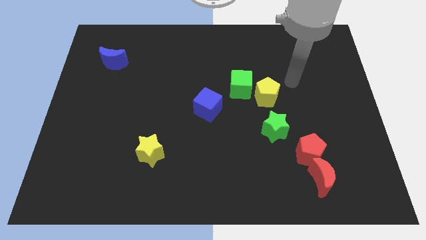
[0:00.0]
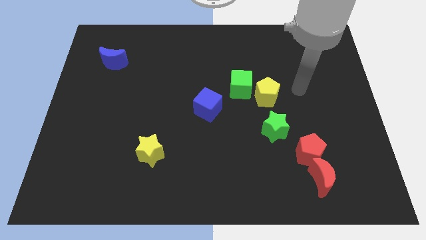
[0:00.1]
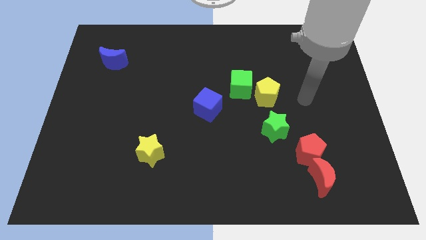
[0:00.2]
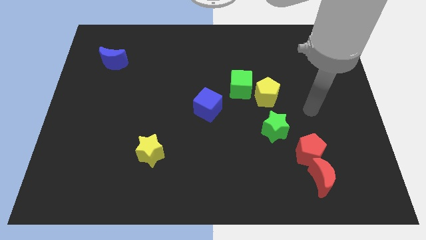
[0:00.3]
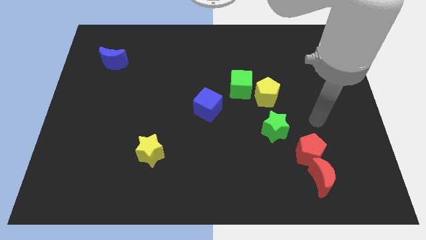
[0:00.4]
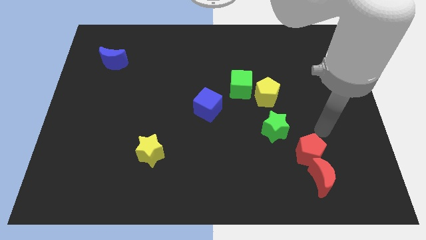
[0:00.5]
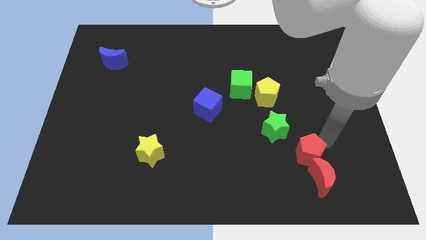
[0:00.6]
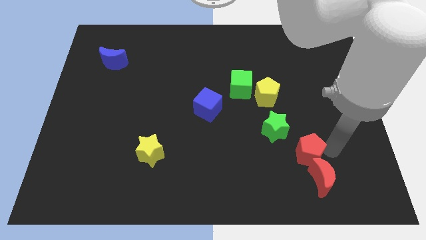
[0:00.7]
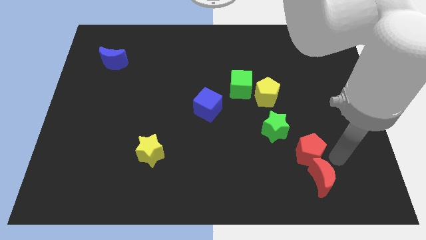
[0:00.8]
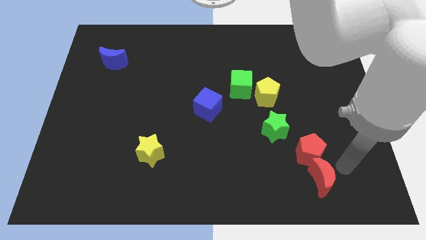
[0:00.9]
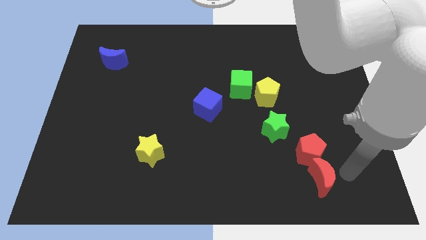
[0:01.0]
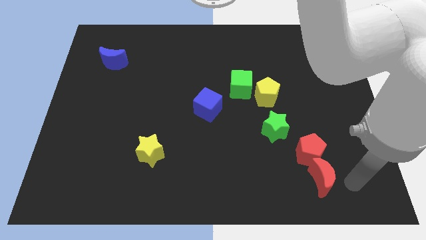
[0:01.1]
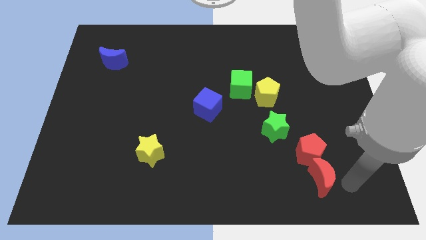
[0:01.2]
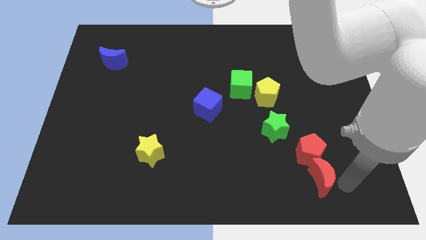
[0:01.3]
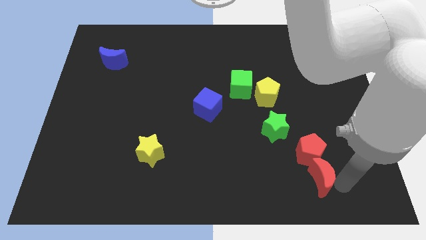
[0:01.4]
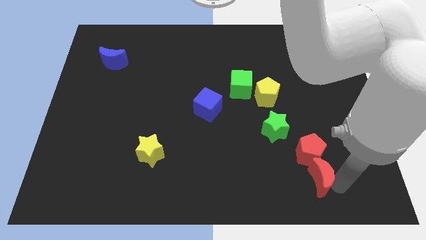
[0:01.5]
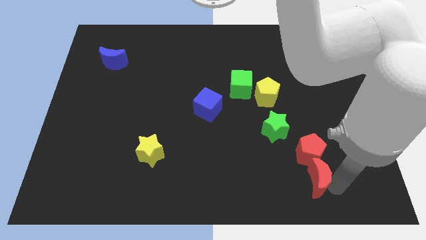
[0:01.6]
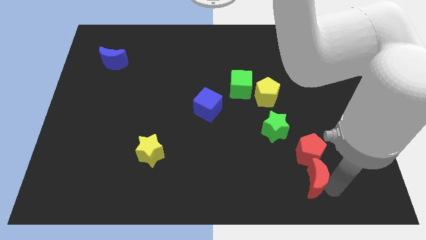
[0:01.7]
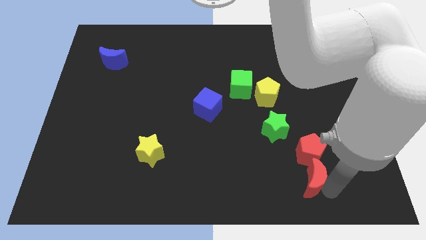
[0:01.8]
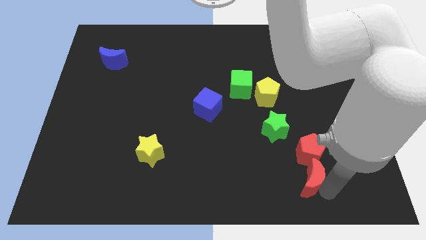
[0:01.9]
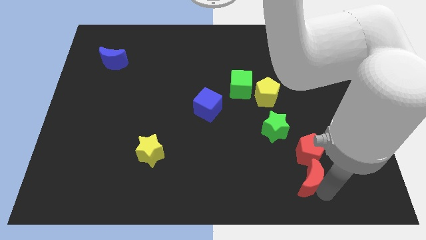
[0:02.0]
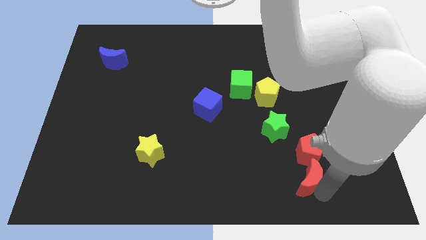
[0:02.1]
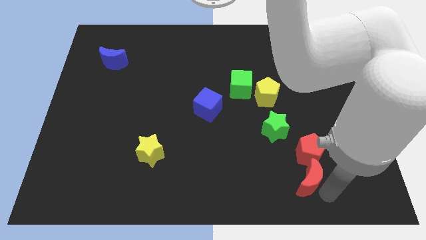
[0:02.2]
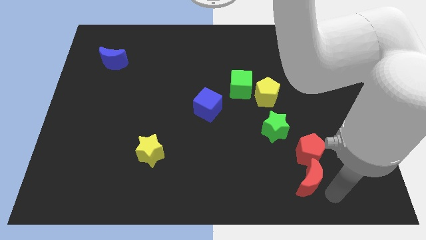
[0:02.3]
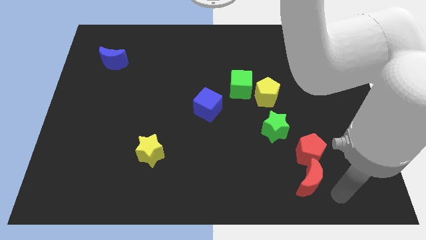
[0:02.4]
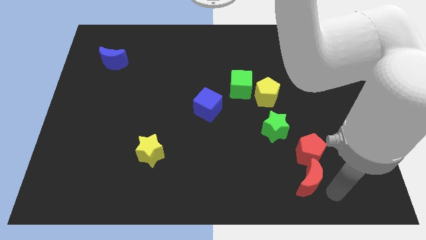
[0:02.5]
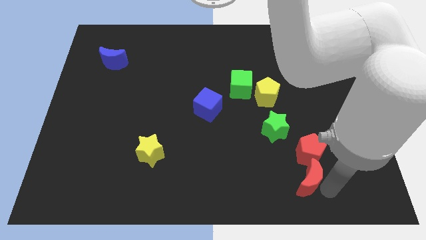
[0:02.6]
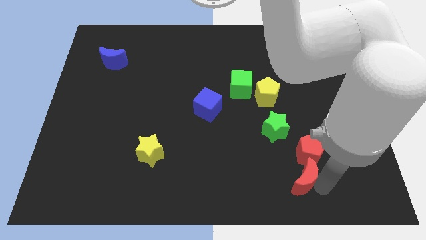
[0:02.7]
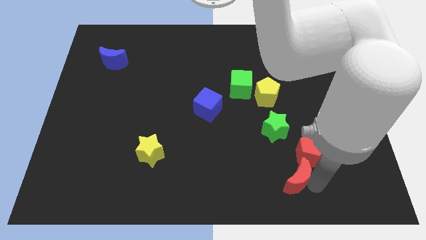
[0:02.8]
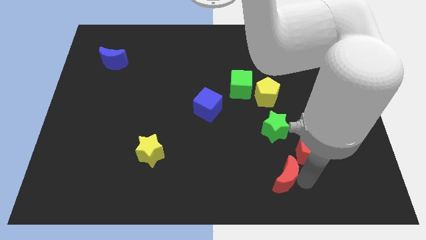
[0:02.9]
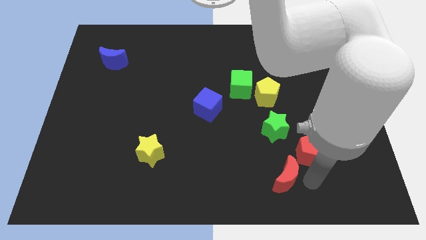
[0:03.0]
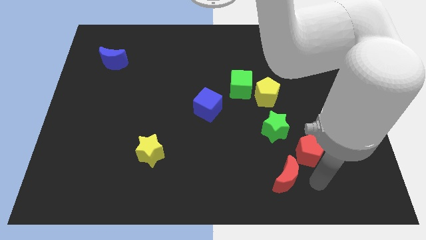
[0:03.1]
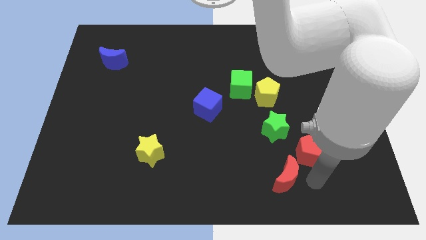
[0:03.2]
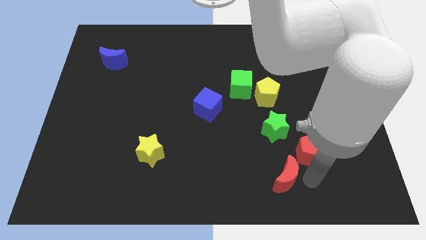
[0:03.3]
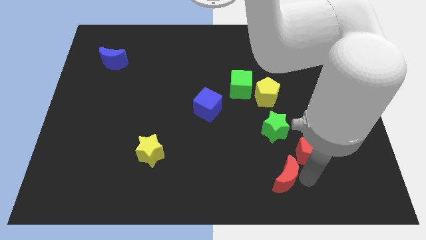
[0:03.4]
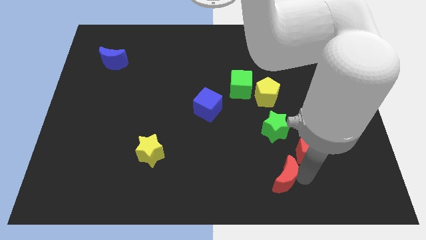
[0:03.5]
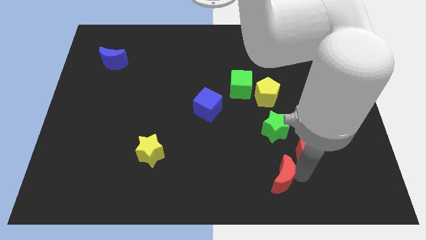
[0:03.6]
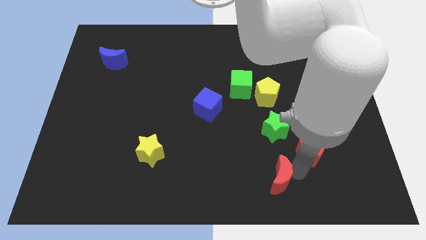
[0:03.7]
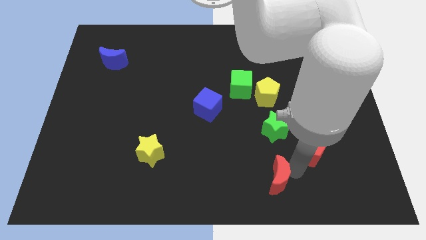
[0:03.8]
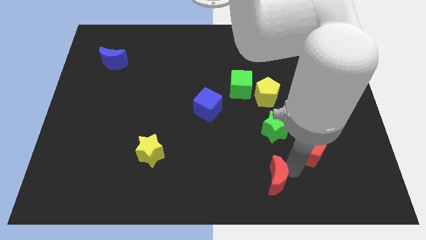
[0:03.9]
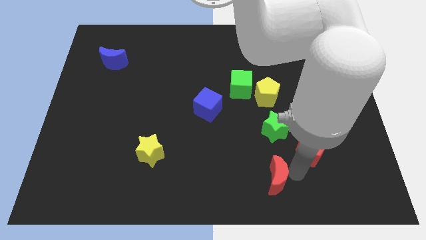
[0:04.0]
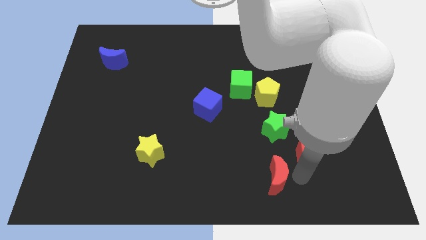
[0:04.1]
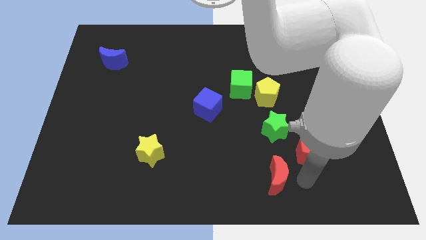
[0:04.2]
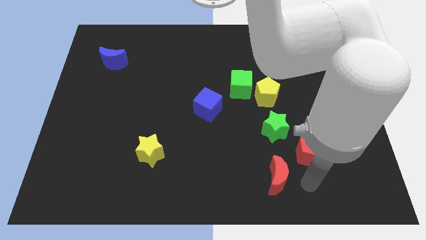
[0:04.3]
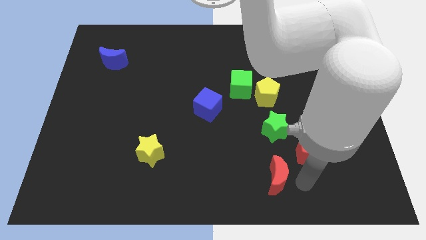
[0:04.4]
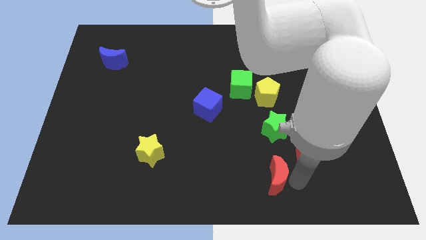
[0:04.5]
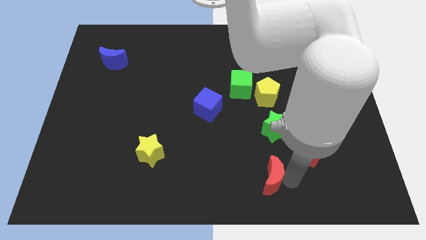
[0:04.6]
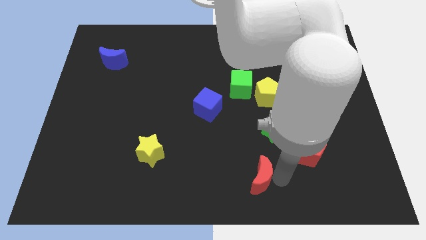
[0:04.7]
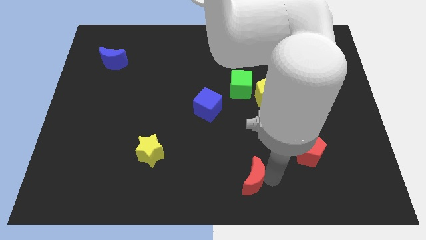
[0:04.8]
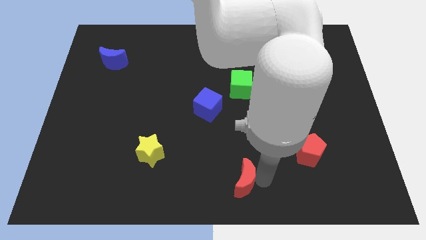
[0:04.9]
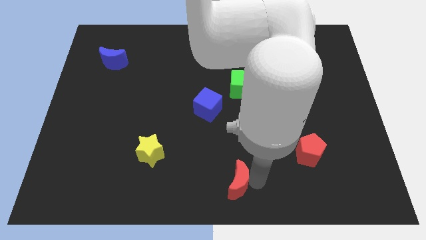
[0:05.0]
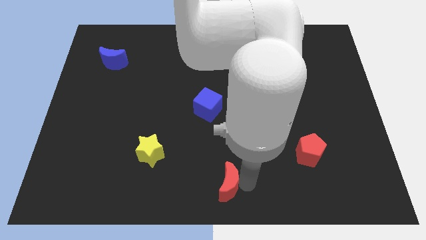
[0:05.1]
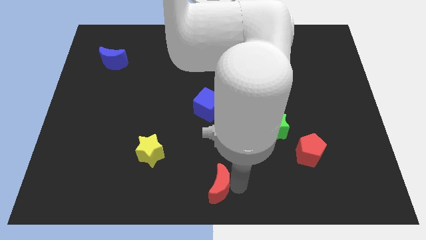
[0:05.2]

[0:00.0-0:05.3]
slide the red moon left

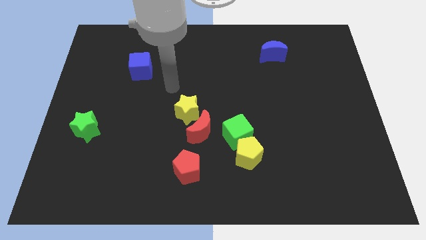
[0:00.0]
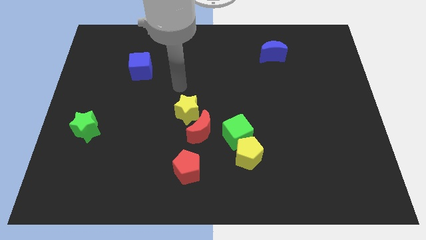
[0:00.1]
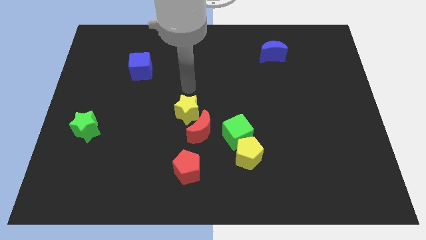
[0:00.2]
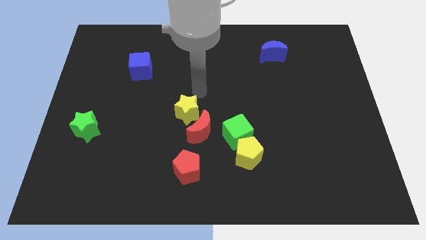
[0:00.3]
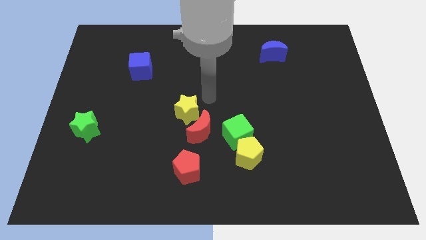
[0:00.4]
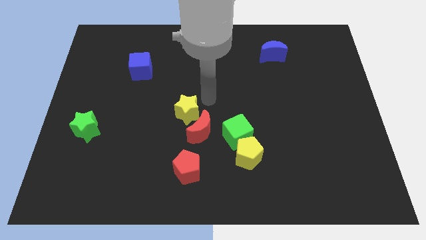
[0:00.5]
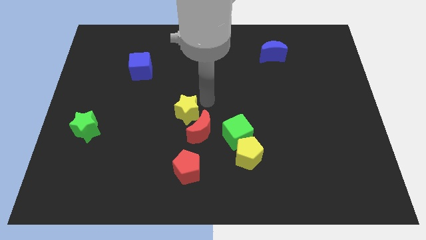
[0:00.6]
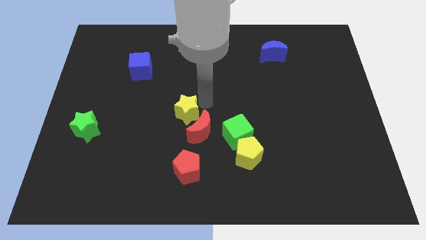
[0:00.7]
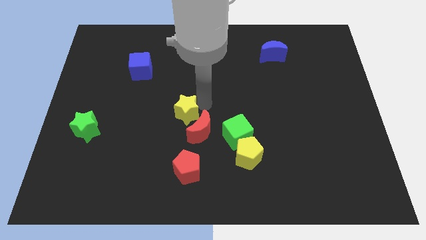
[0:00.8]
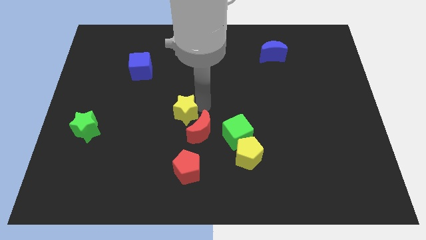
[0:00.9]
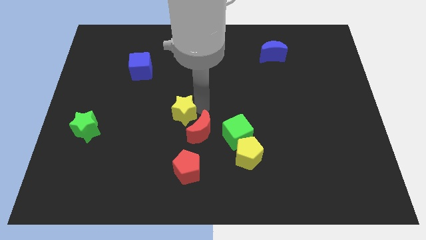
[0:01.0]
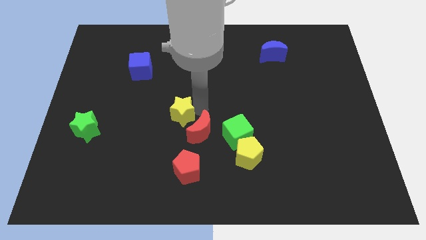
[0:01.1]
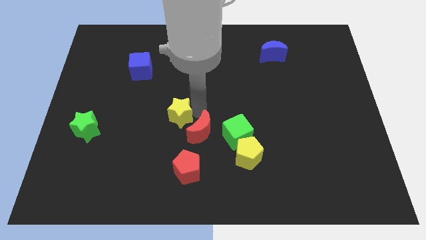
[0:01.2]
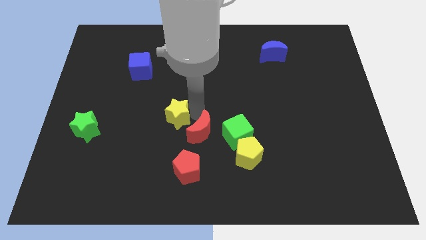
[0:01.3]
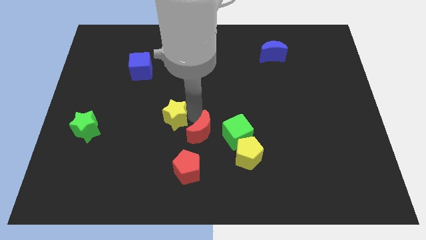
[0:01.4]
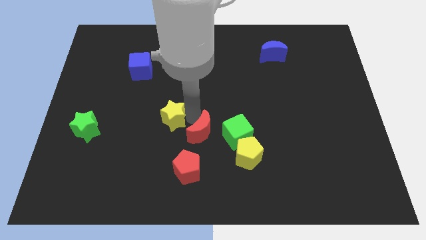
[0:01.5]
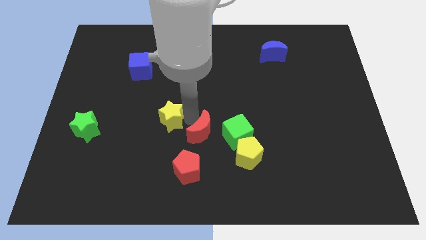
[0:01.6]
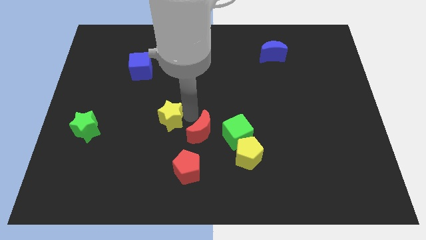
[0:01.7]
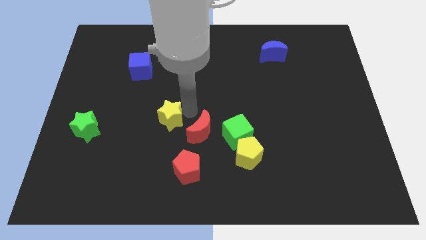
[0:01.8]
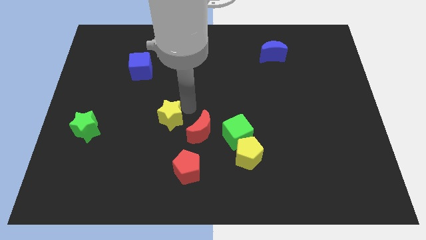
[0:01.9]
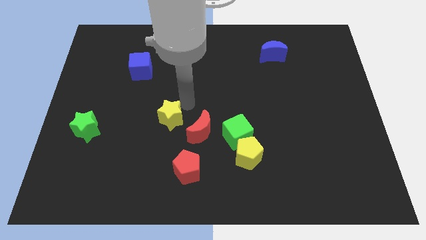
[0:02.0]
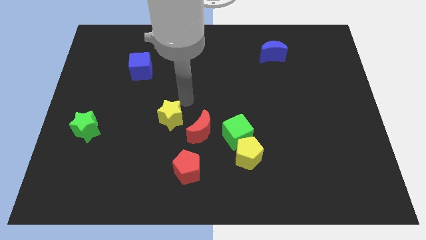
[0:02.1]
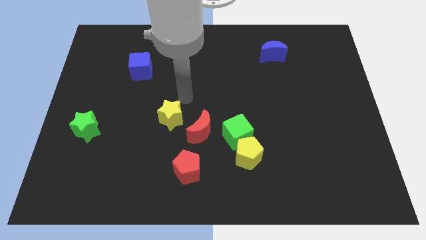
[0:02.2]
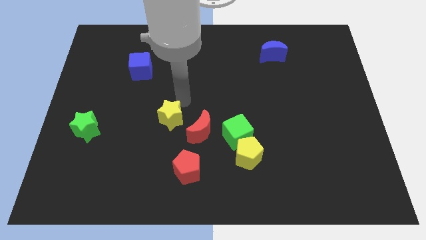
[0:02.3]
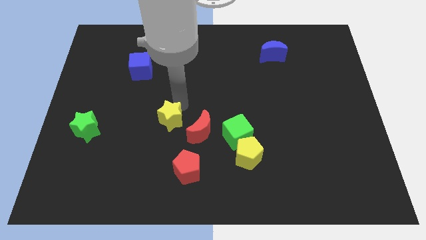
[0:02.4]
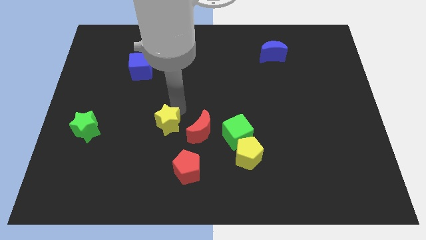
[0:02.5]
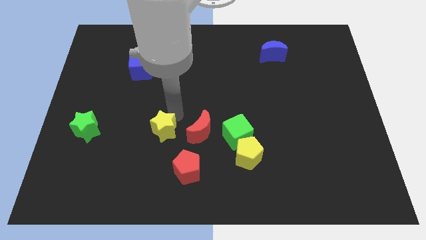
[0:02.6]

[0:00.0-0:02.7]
slightly move the yellow star downwards and to the left

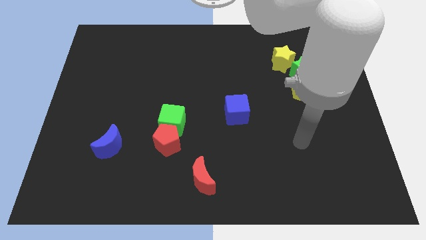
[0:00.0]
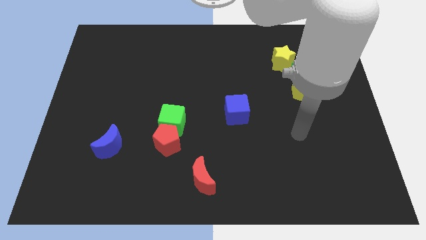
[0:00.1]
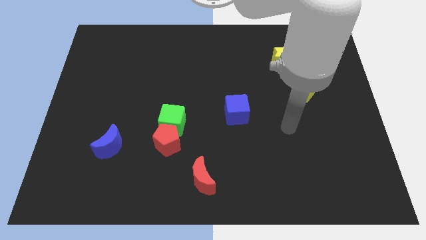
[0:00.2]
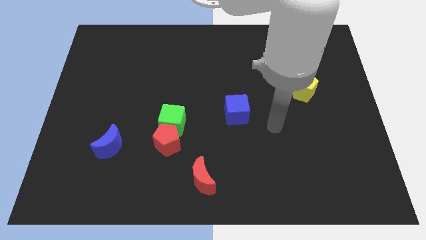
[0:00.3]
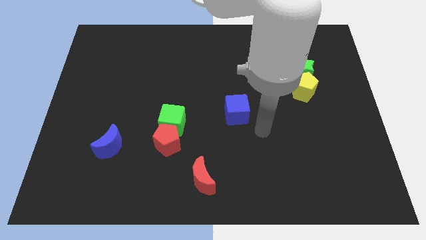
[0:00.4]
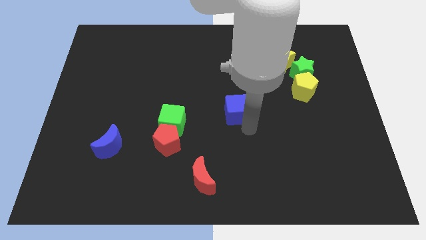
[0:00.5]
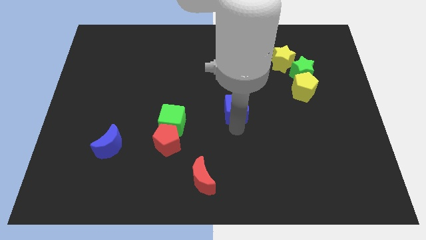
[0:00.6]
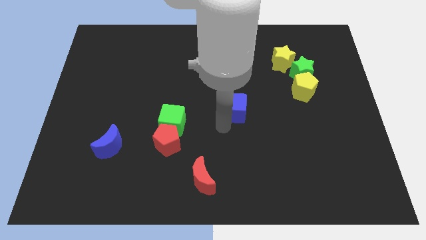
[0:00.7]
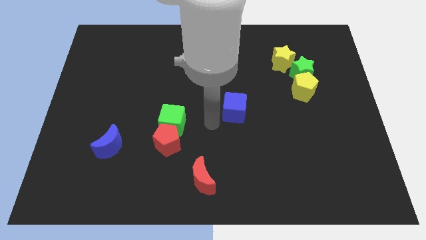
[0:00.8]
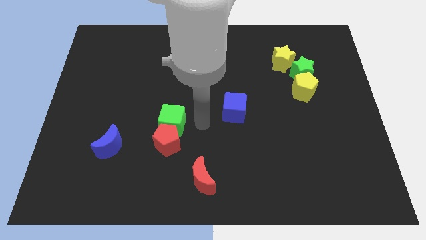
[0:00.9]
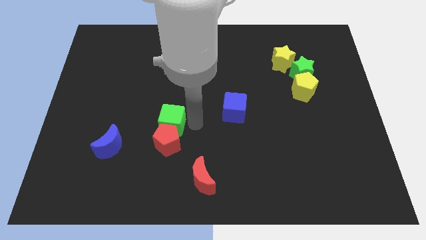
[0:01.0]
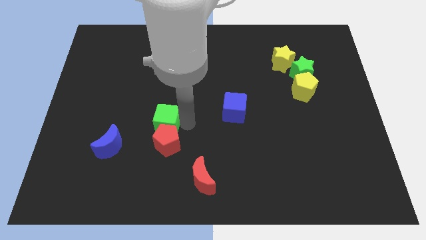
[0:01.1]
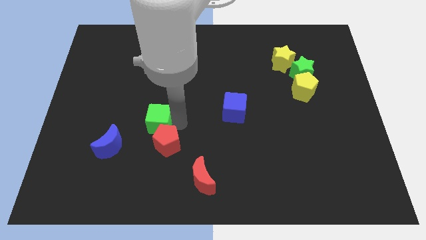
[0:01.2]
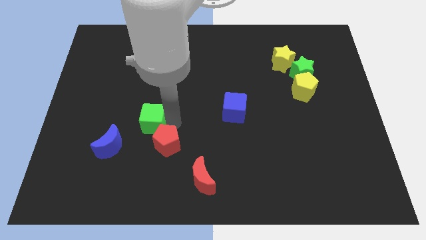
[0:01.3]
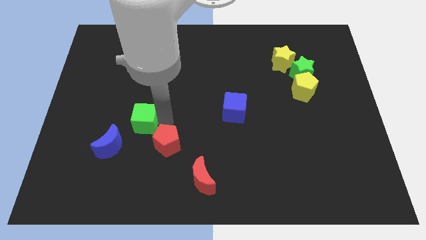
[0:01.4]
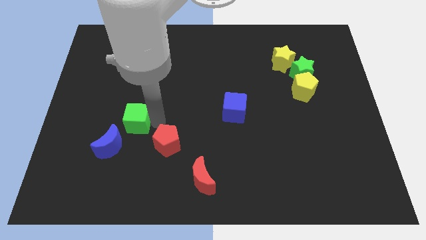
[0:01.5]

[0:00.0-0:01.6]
slightly push the green cube to the left
